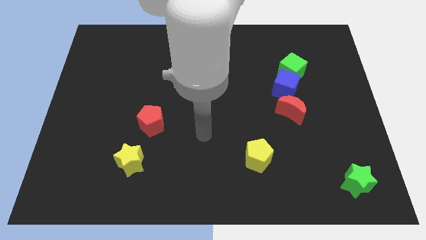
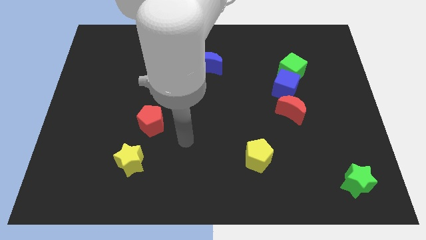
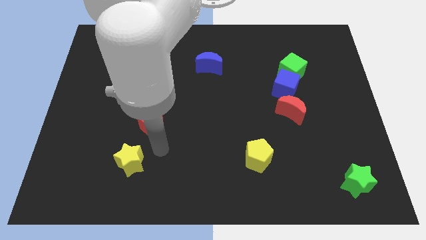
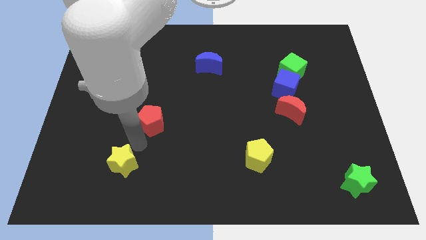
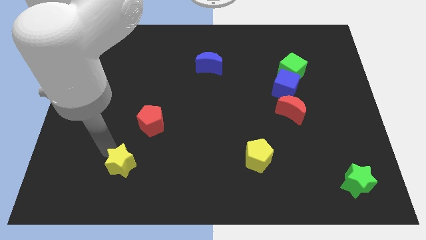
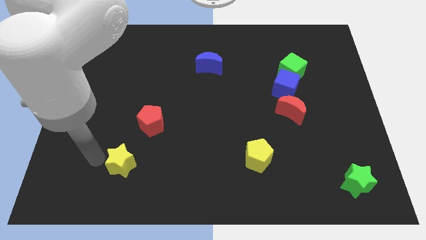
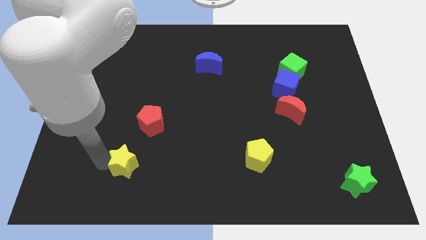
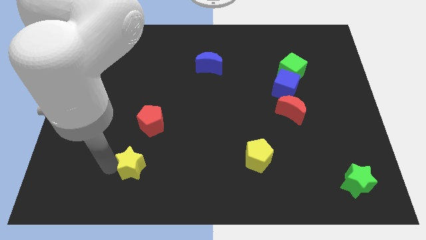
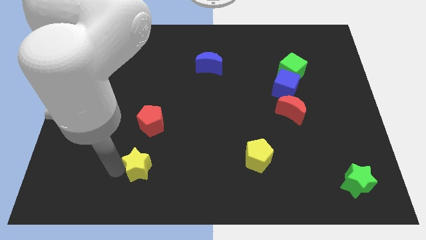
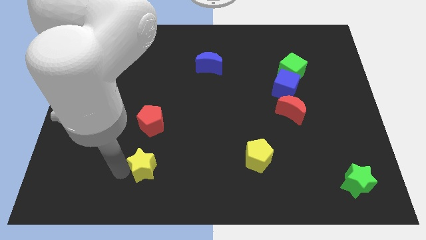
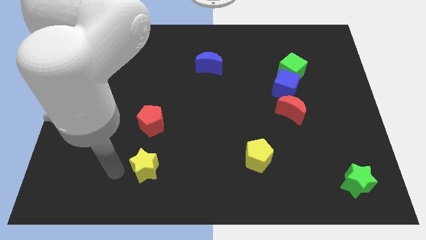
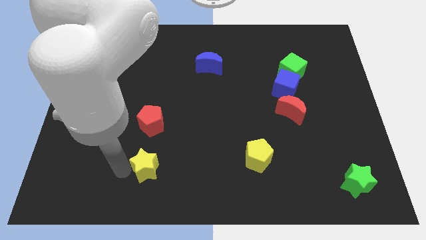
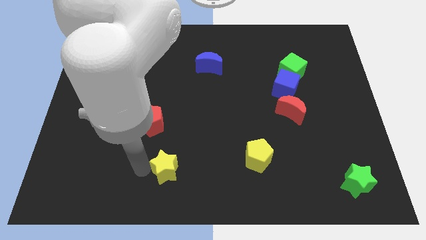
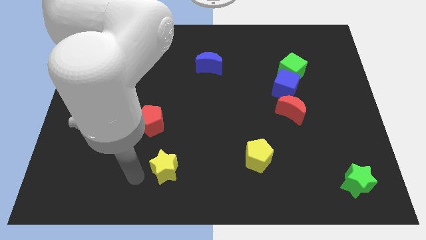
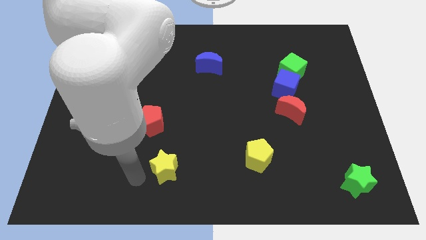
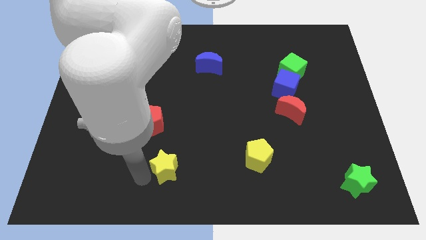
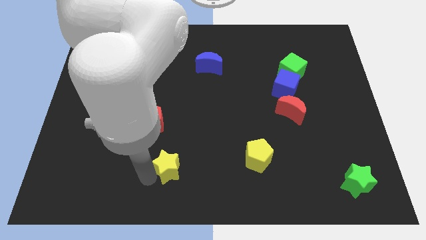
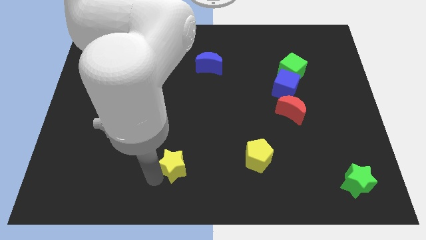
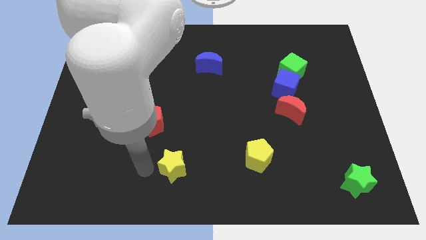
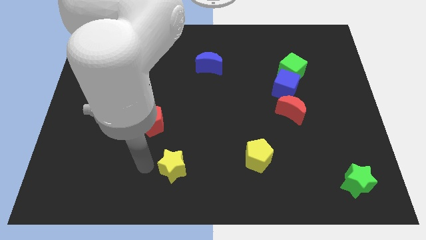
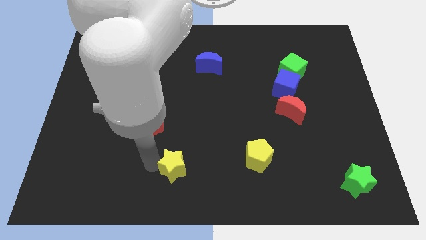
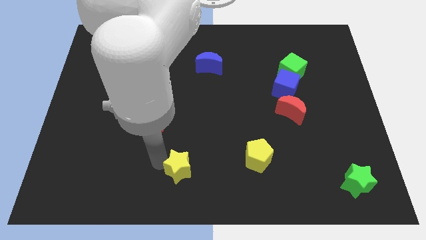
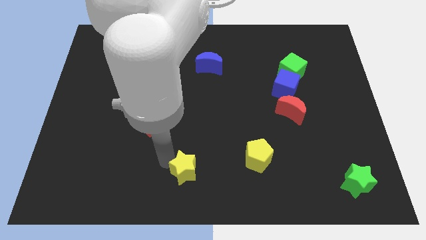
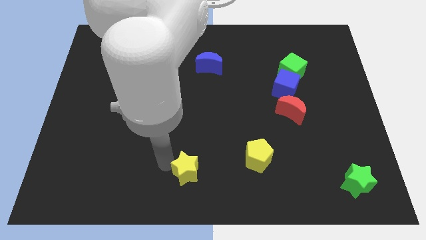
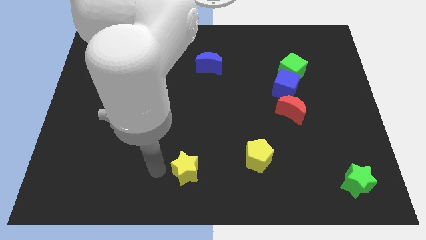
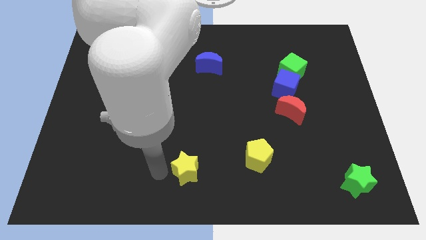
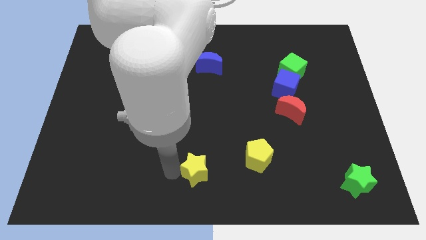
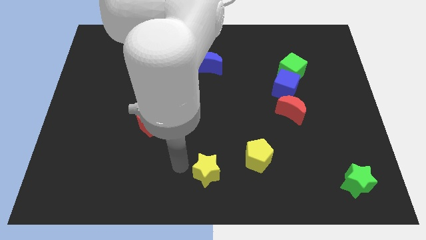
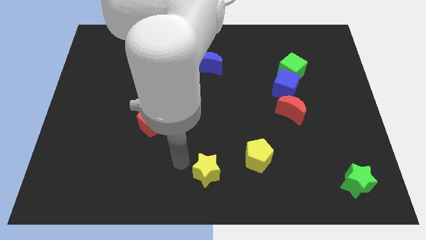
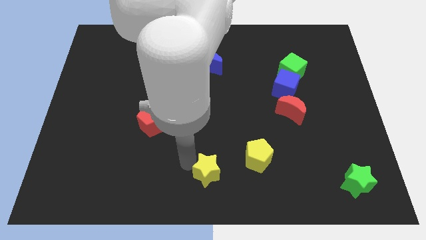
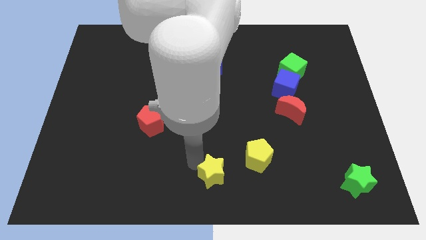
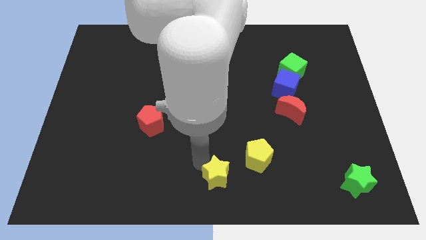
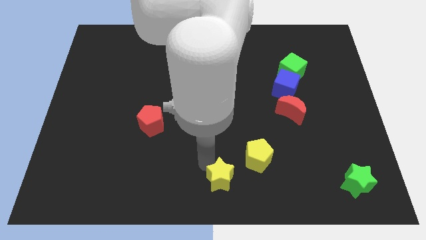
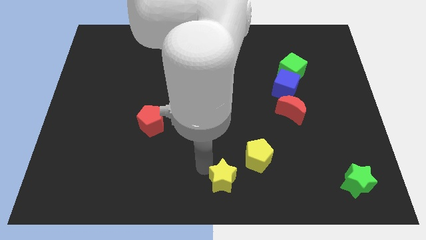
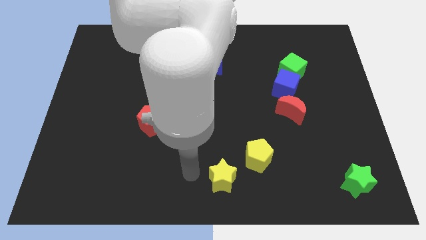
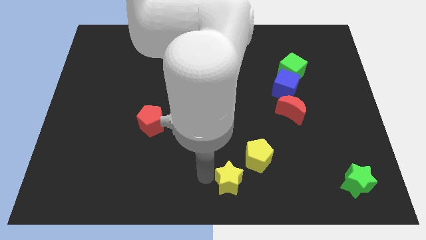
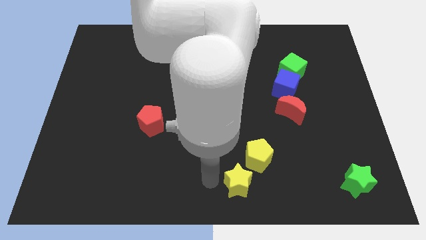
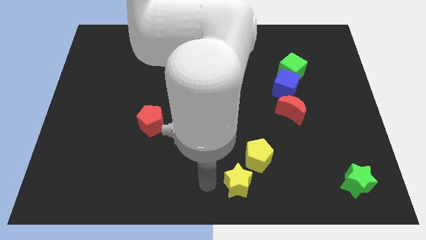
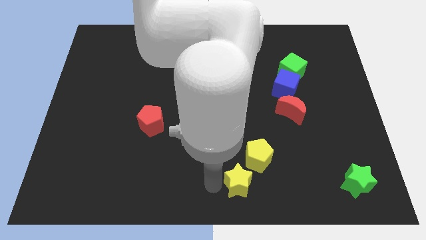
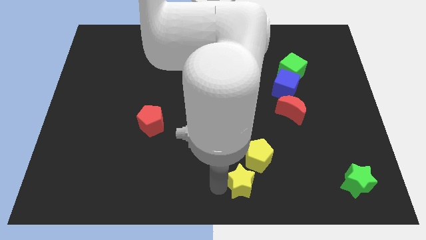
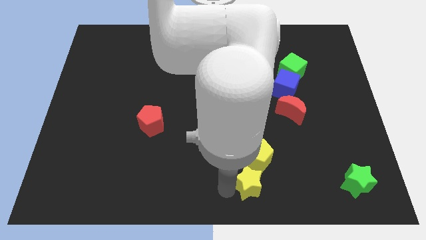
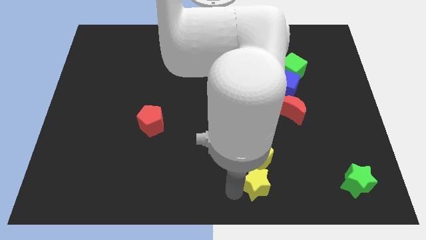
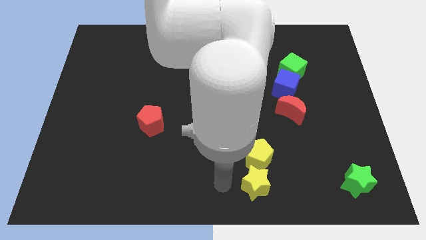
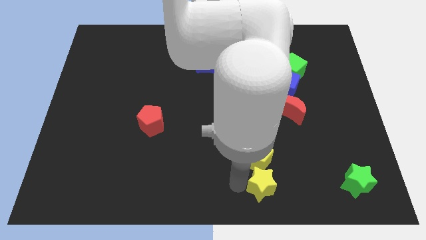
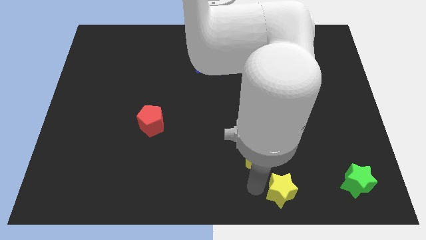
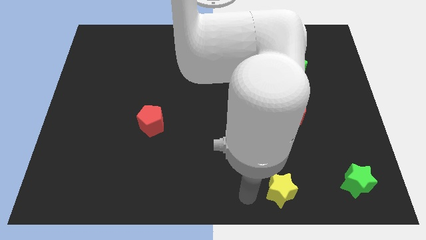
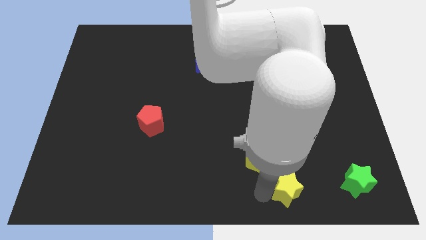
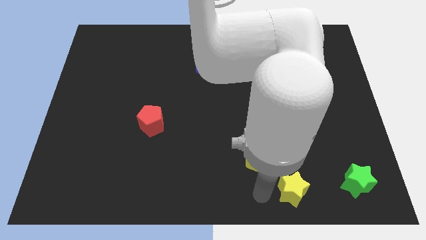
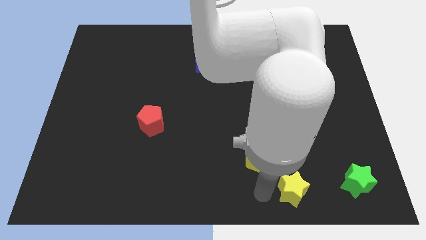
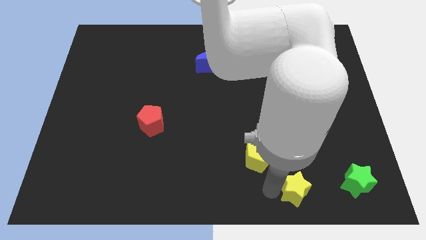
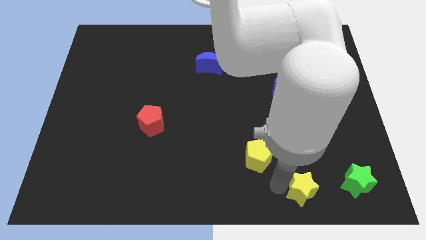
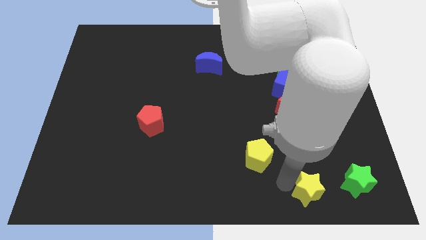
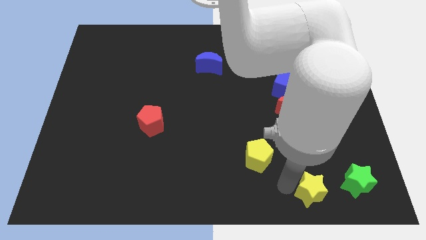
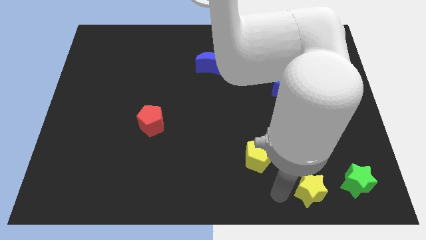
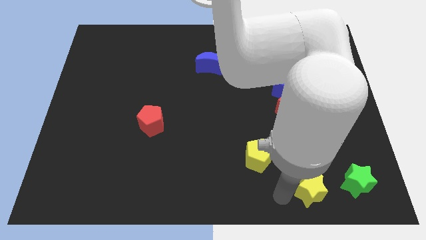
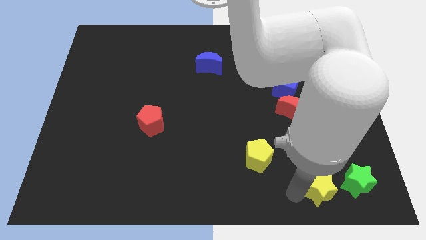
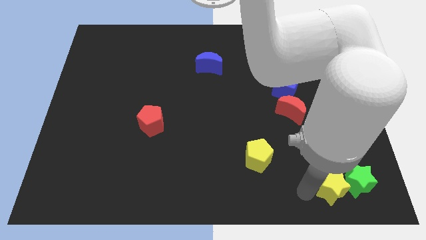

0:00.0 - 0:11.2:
slide the yellow star towards the green star

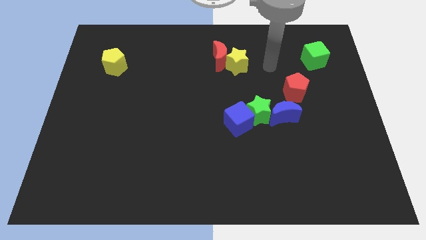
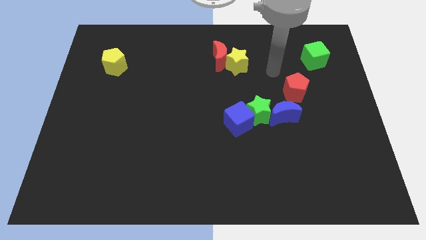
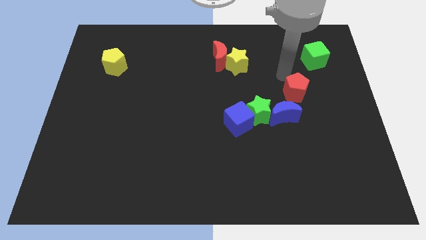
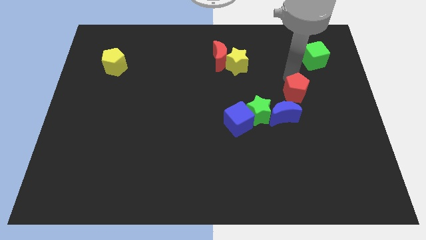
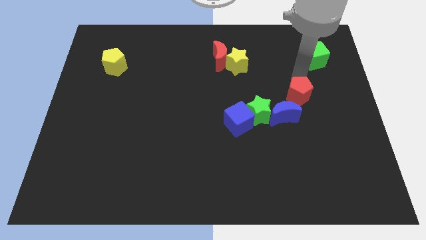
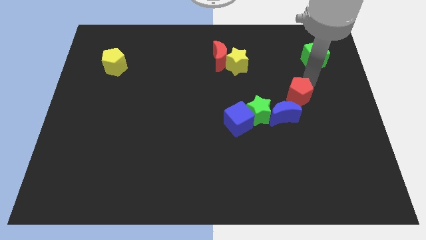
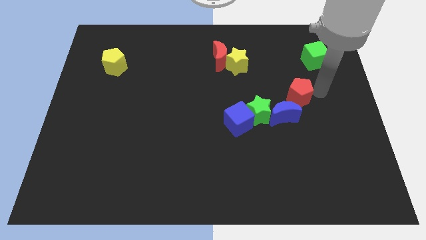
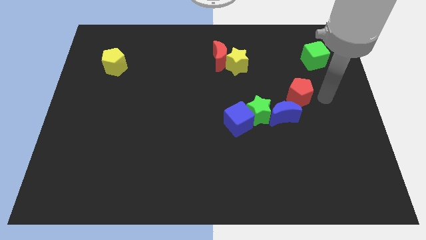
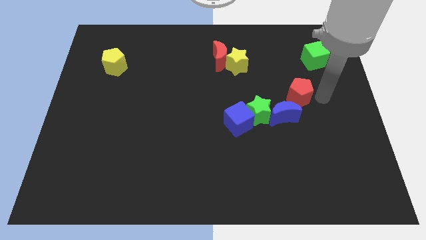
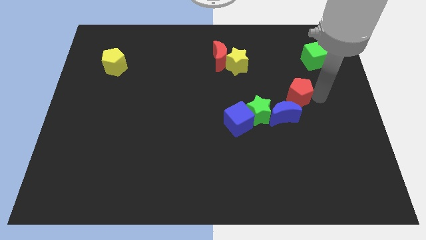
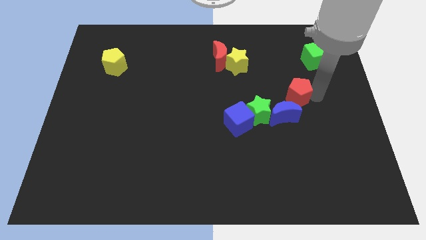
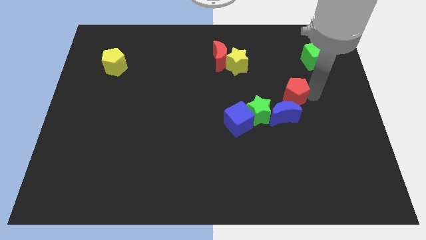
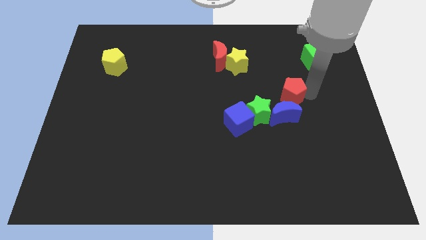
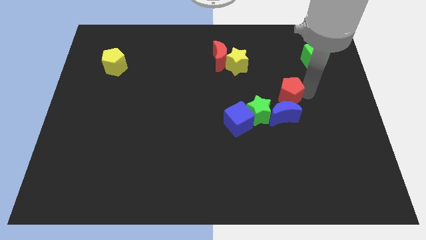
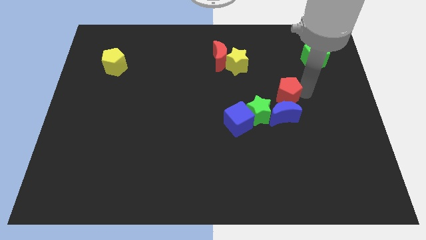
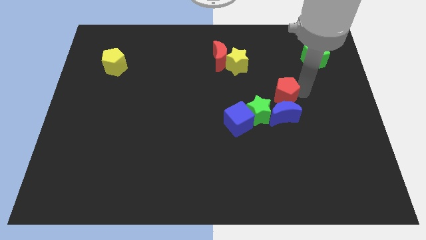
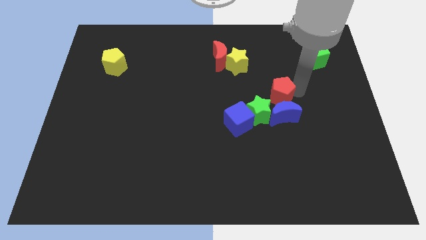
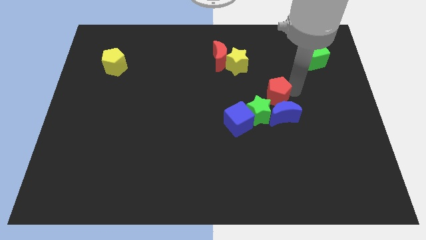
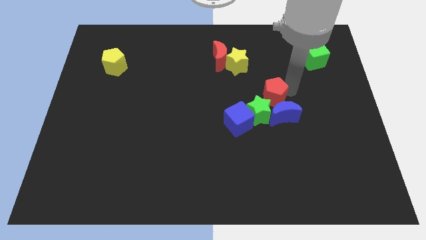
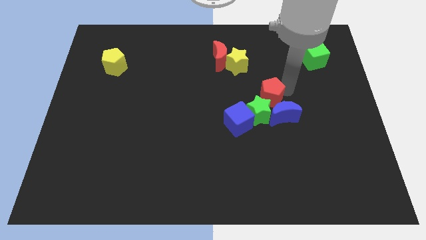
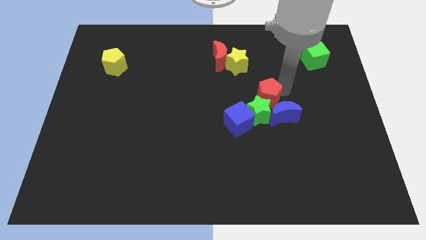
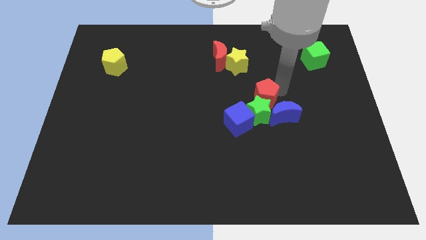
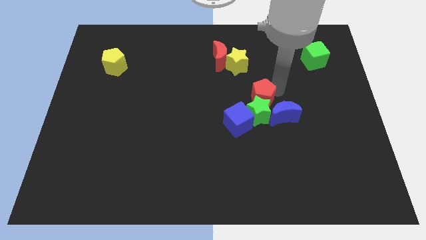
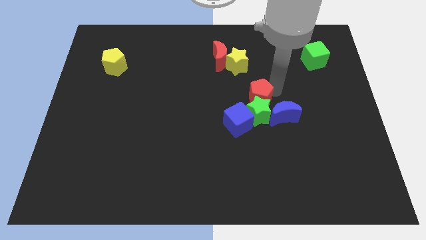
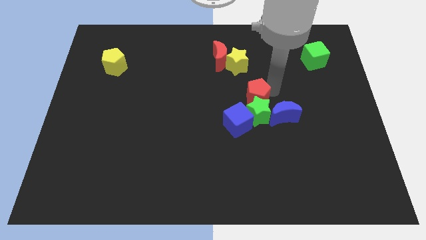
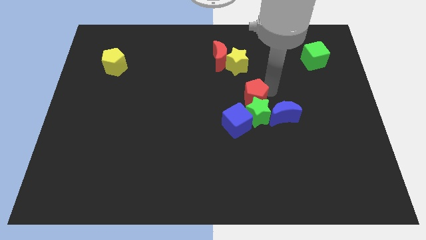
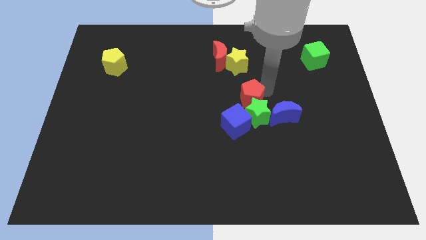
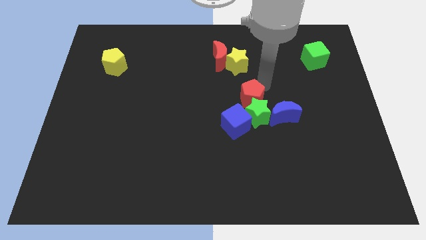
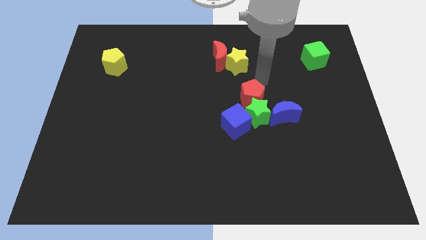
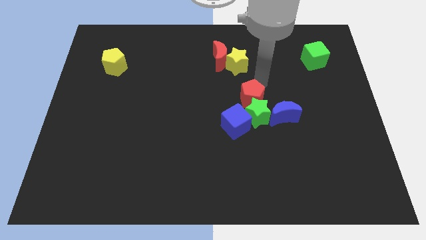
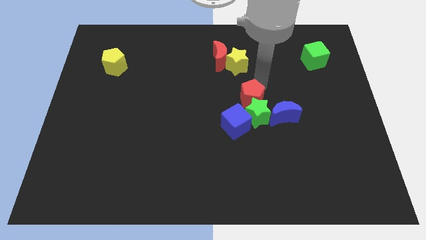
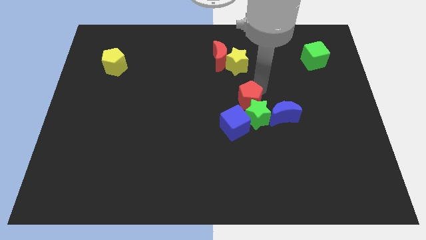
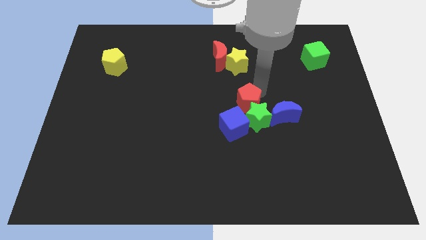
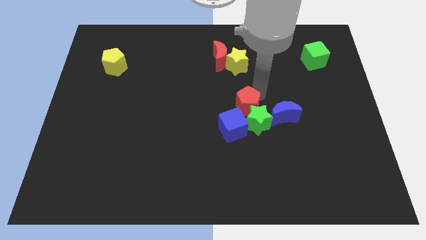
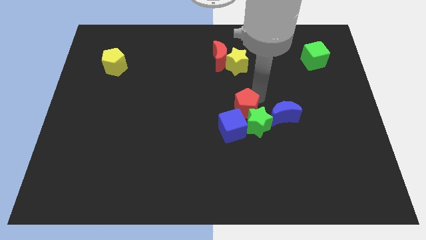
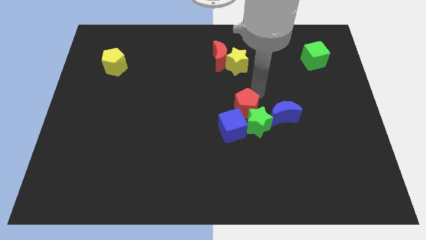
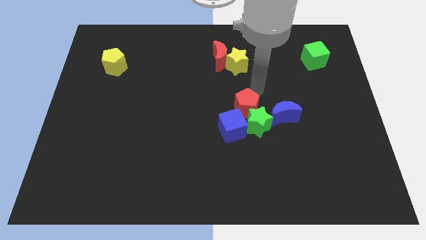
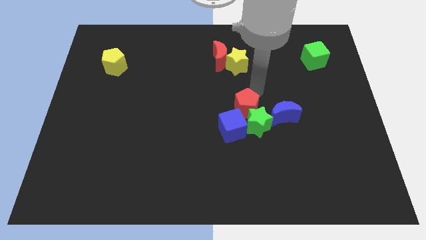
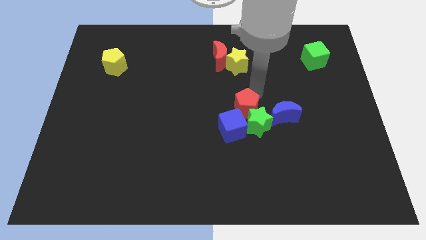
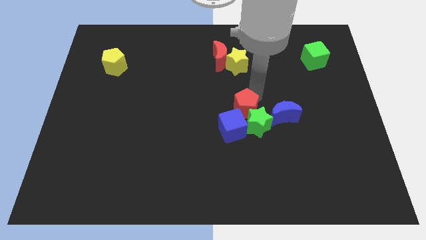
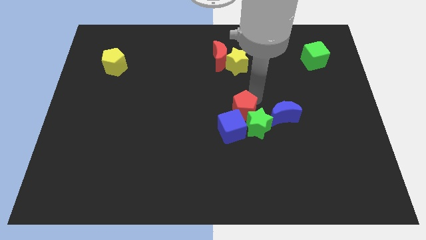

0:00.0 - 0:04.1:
push the red pentagon towards the blue cube
